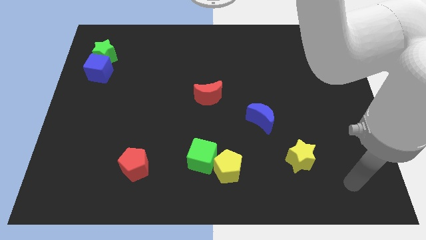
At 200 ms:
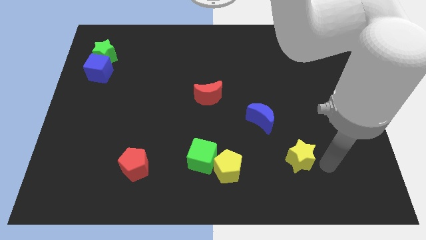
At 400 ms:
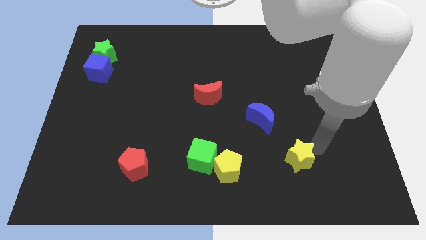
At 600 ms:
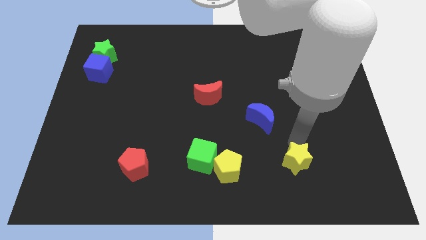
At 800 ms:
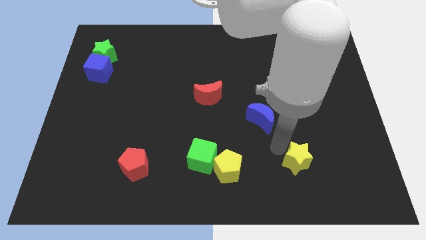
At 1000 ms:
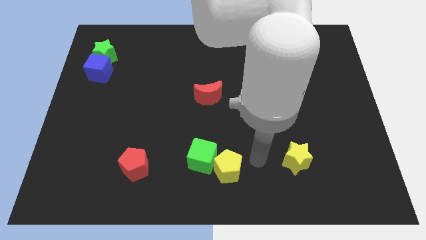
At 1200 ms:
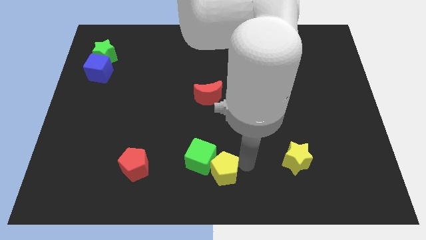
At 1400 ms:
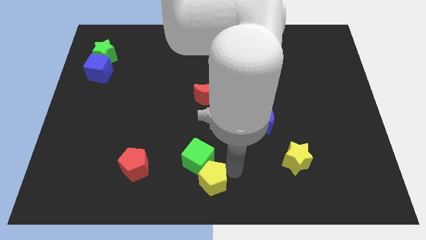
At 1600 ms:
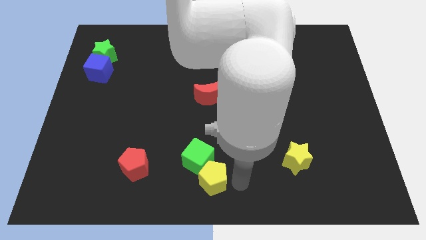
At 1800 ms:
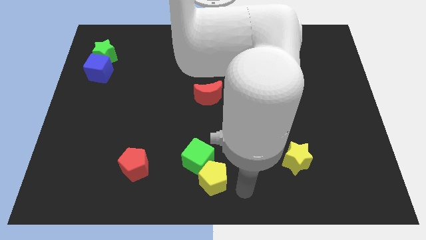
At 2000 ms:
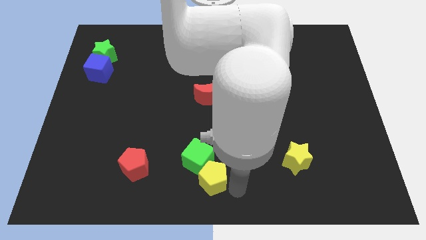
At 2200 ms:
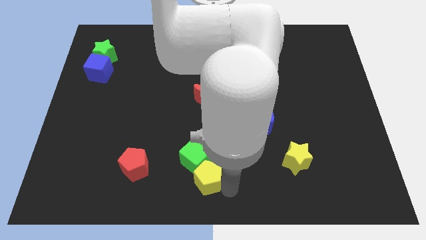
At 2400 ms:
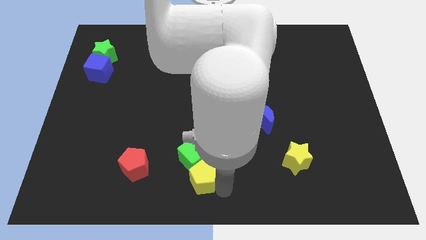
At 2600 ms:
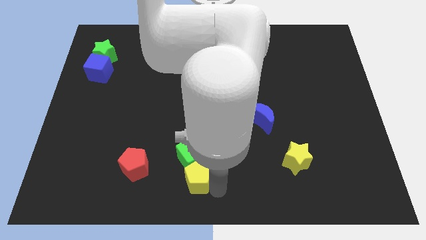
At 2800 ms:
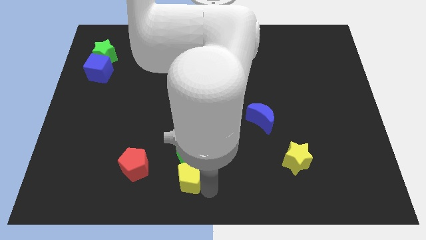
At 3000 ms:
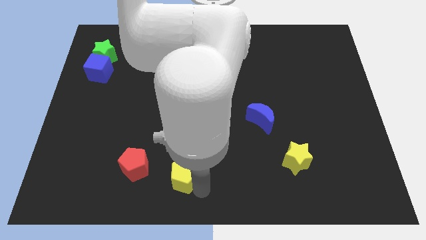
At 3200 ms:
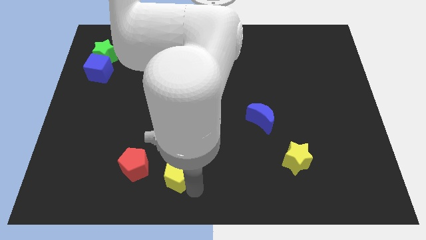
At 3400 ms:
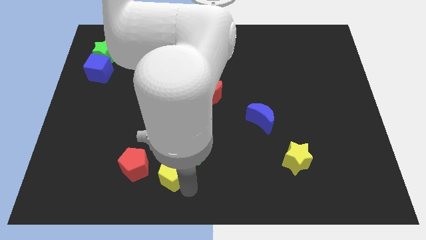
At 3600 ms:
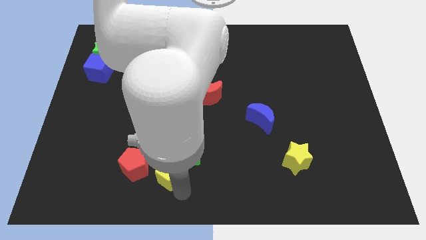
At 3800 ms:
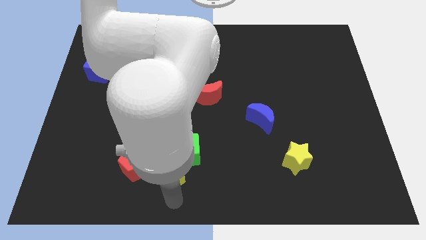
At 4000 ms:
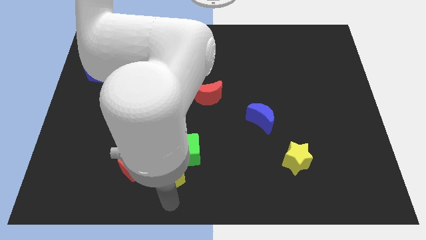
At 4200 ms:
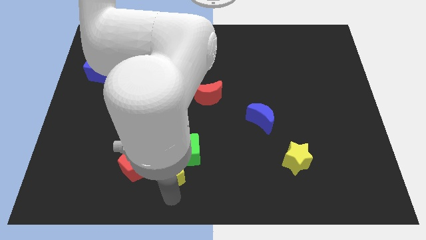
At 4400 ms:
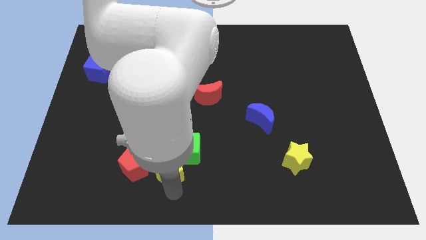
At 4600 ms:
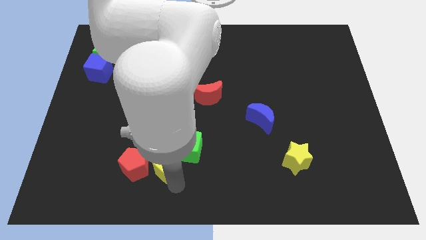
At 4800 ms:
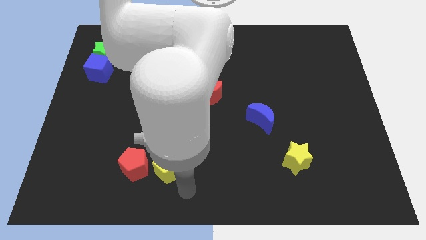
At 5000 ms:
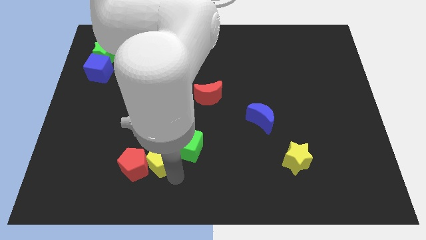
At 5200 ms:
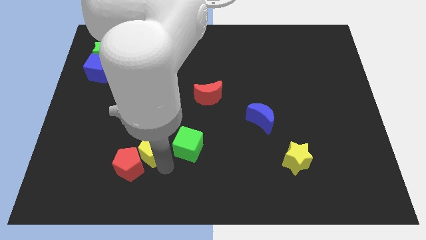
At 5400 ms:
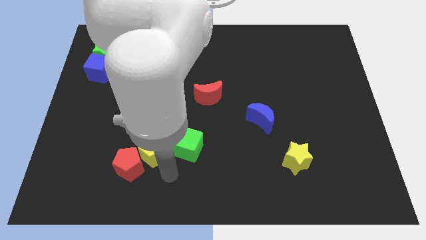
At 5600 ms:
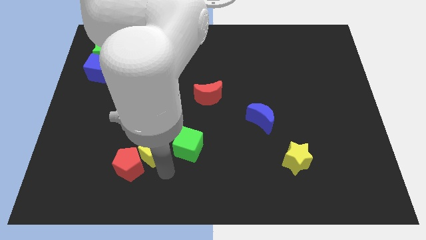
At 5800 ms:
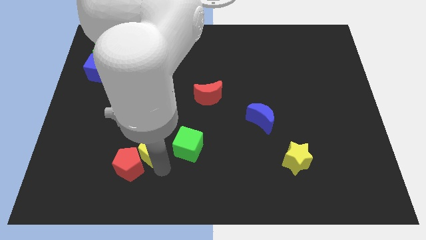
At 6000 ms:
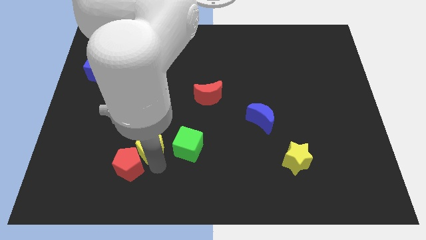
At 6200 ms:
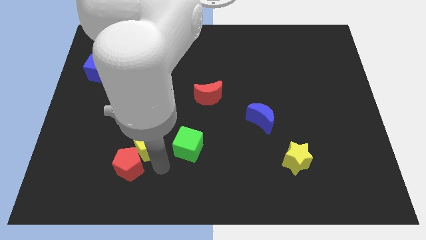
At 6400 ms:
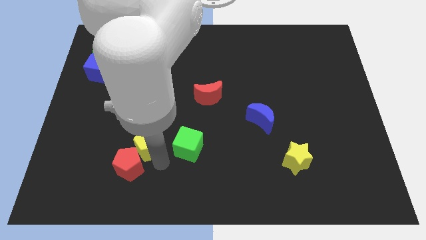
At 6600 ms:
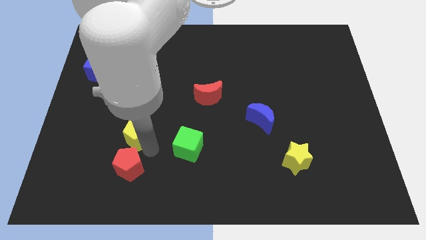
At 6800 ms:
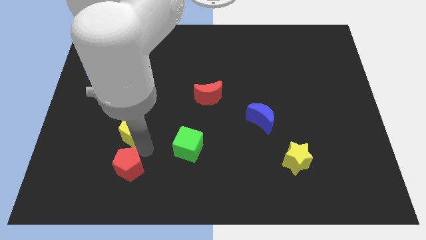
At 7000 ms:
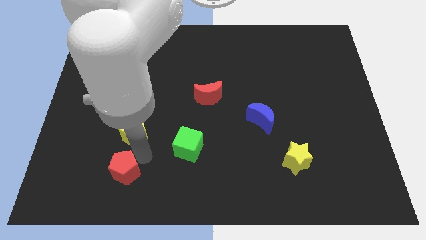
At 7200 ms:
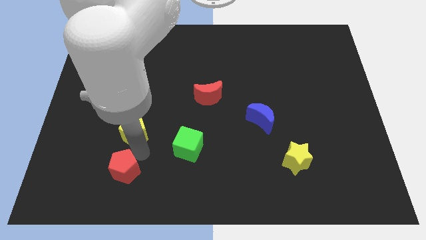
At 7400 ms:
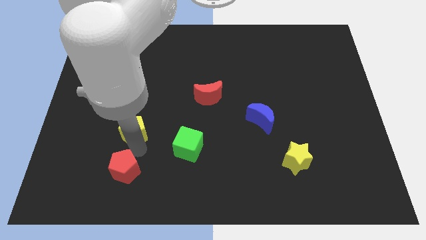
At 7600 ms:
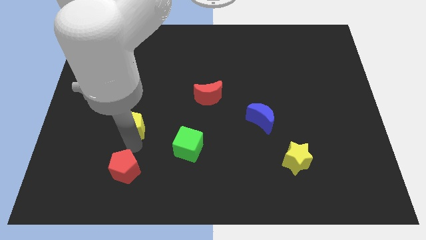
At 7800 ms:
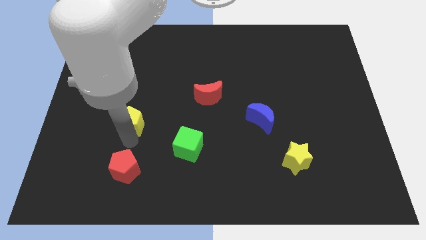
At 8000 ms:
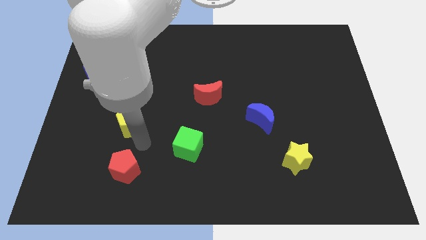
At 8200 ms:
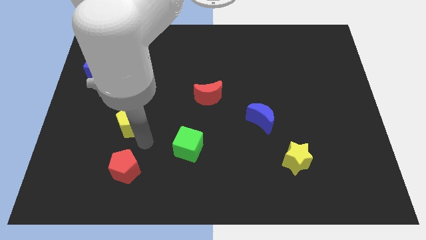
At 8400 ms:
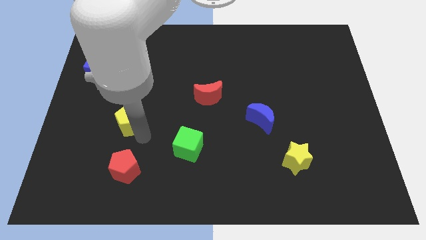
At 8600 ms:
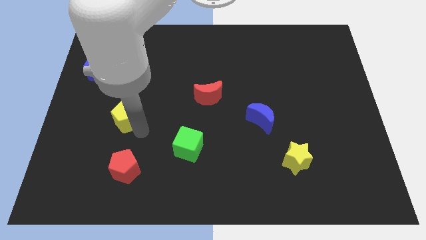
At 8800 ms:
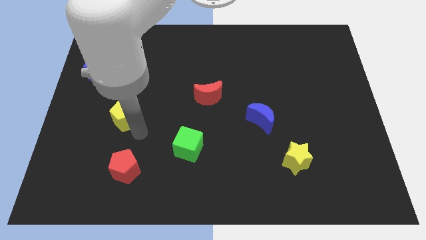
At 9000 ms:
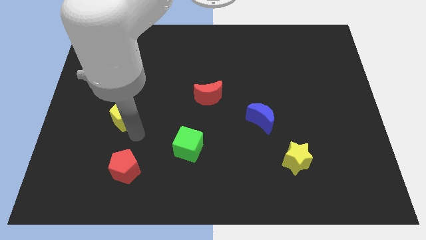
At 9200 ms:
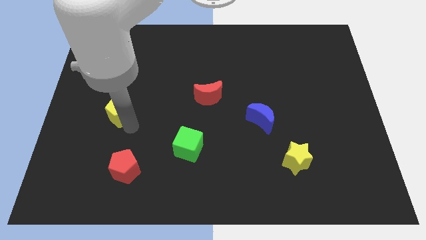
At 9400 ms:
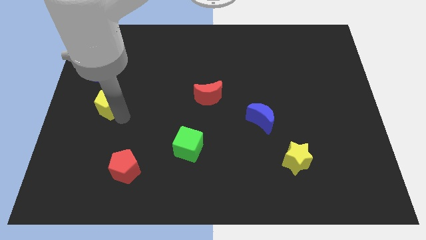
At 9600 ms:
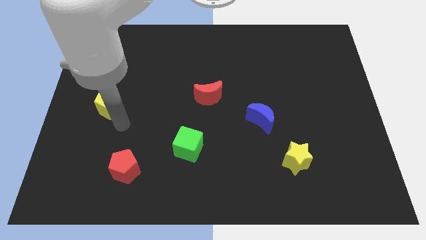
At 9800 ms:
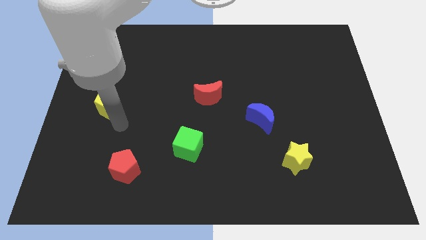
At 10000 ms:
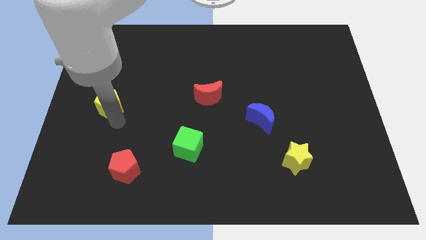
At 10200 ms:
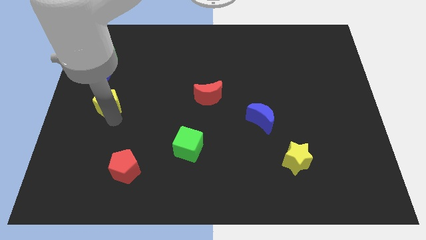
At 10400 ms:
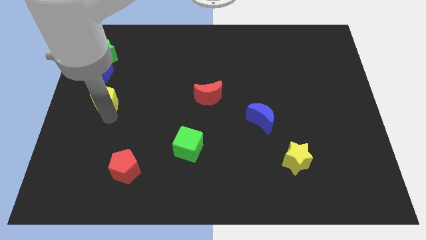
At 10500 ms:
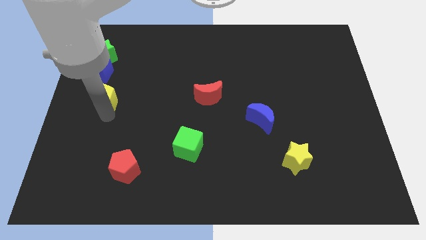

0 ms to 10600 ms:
push the yellow pentagon below the green star

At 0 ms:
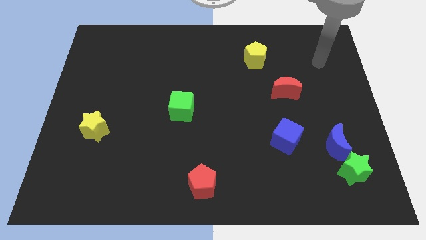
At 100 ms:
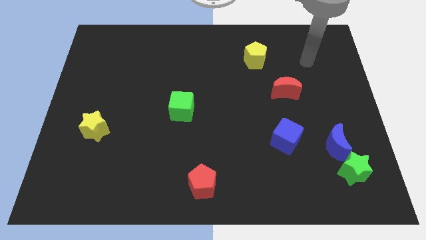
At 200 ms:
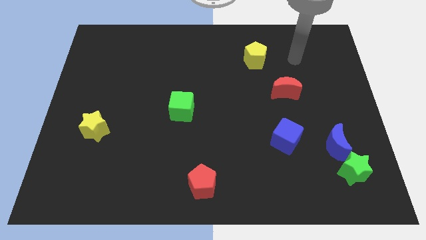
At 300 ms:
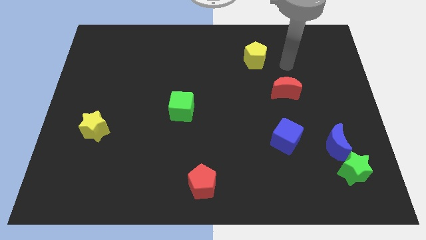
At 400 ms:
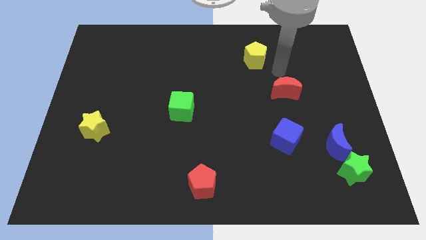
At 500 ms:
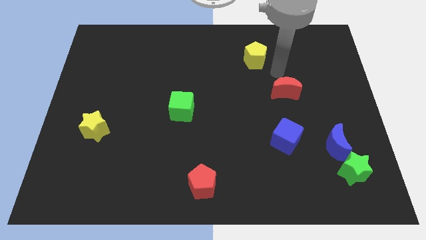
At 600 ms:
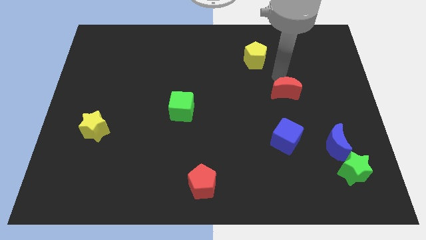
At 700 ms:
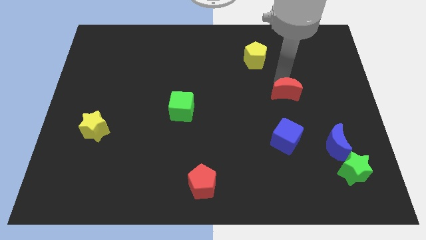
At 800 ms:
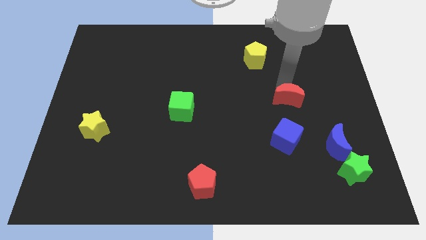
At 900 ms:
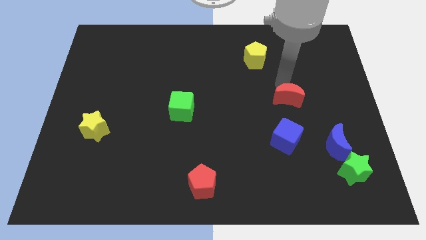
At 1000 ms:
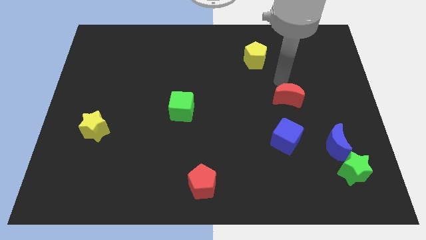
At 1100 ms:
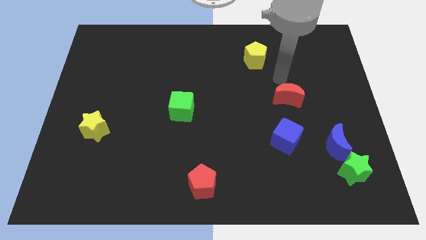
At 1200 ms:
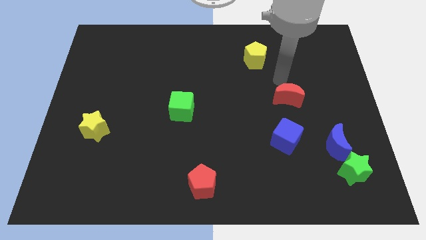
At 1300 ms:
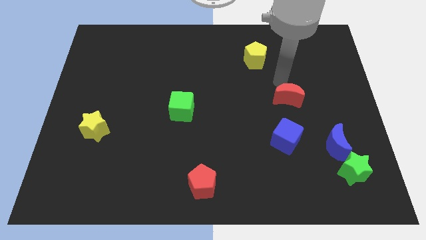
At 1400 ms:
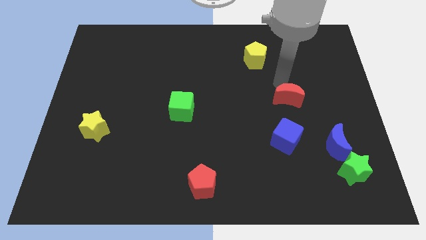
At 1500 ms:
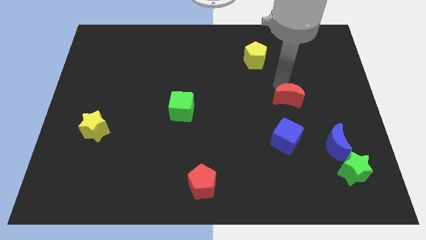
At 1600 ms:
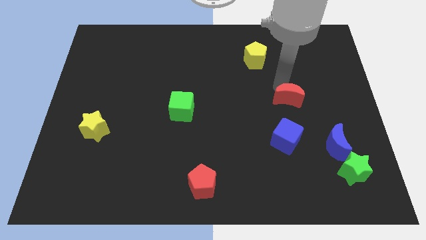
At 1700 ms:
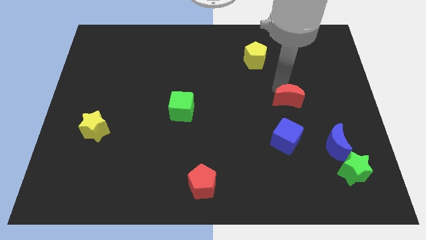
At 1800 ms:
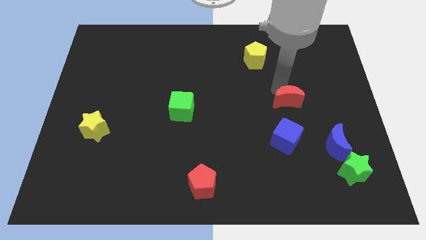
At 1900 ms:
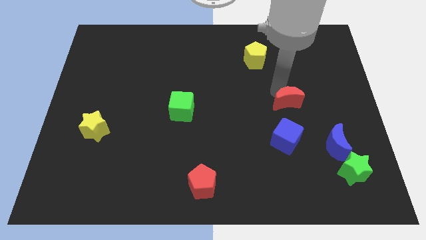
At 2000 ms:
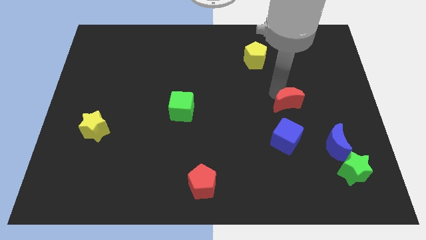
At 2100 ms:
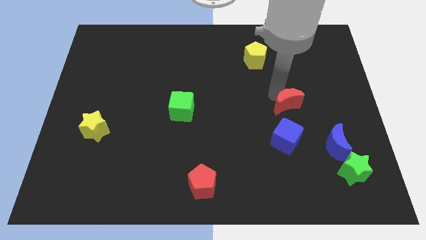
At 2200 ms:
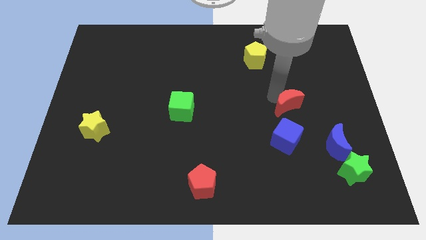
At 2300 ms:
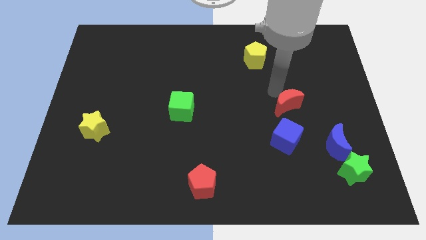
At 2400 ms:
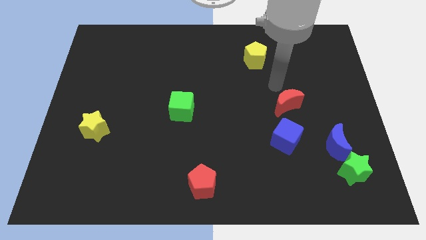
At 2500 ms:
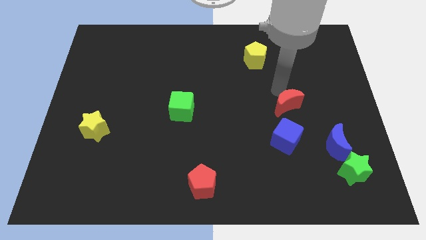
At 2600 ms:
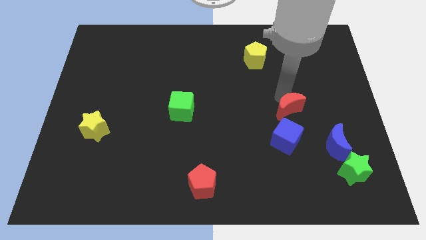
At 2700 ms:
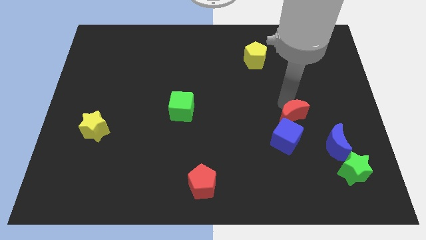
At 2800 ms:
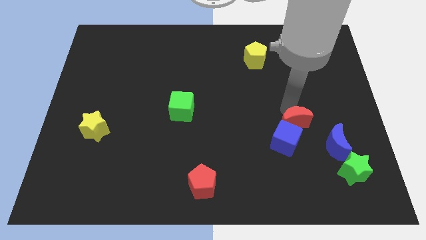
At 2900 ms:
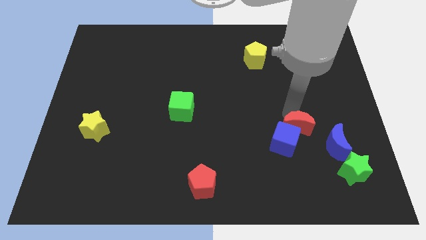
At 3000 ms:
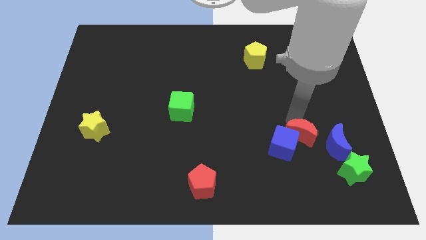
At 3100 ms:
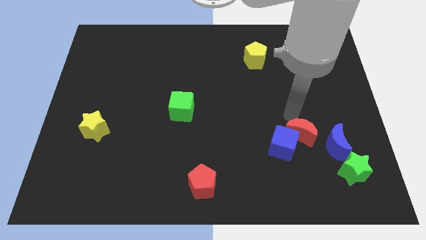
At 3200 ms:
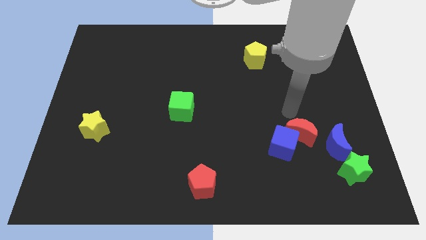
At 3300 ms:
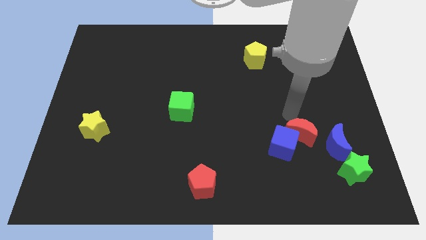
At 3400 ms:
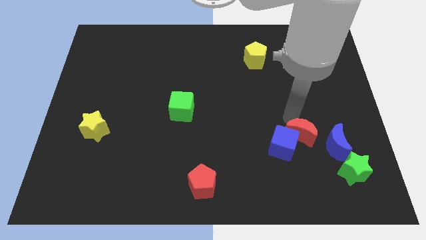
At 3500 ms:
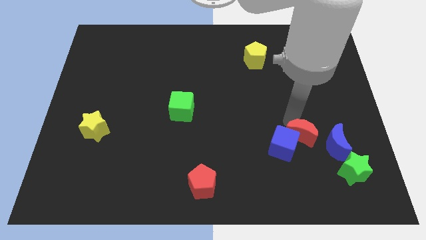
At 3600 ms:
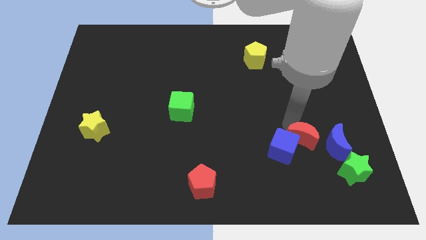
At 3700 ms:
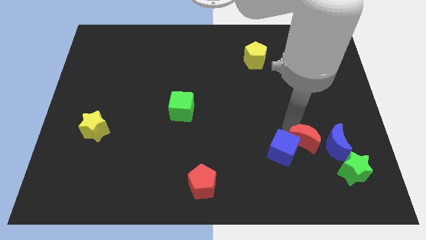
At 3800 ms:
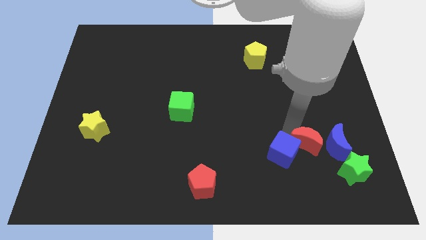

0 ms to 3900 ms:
move the red moon diagonally down and to the left of the blue moon
